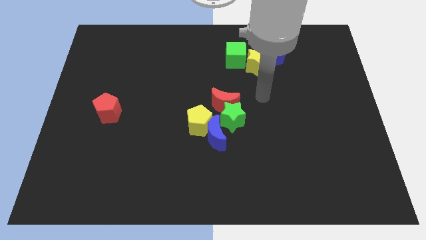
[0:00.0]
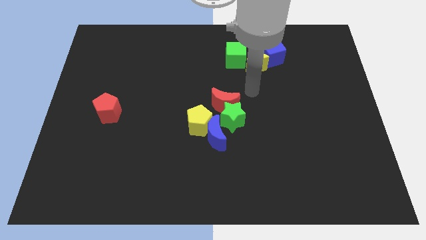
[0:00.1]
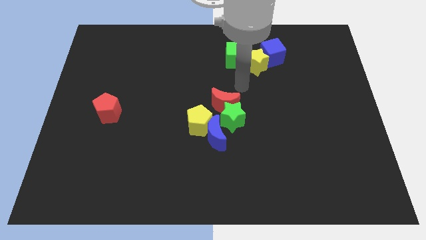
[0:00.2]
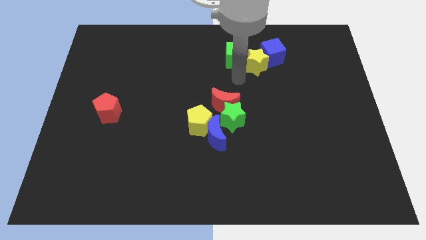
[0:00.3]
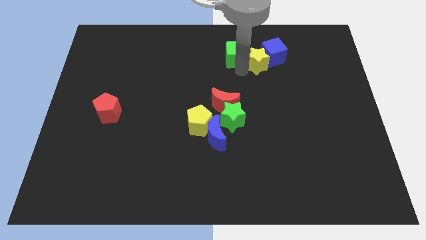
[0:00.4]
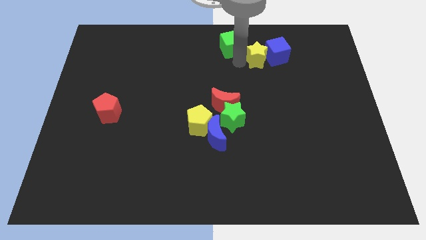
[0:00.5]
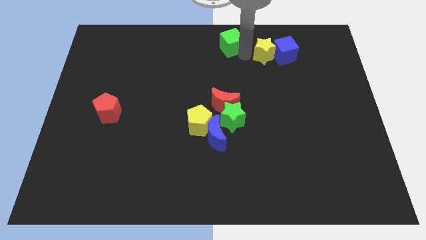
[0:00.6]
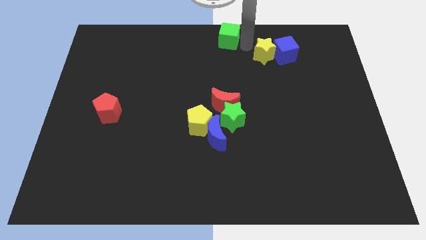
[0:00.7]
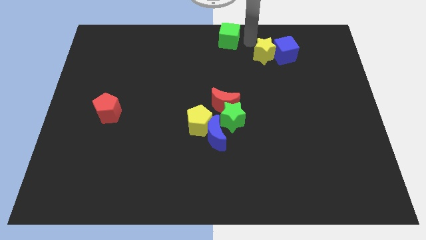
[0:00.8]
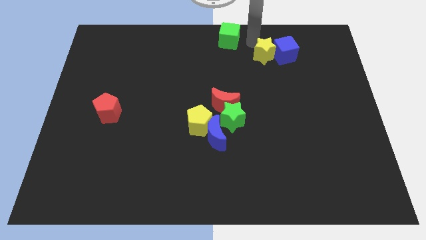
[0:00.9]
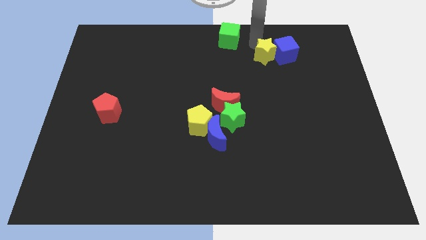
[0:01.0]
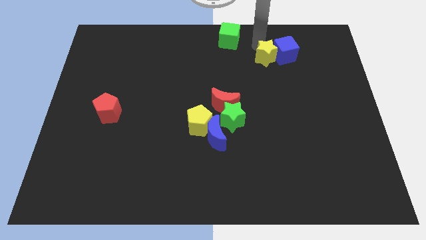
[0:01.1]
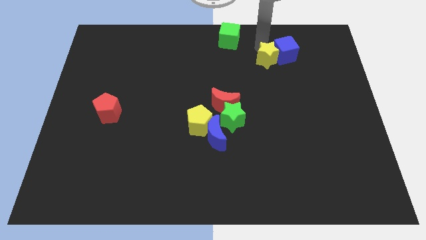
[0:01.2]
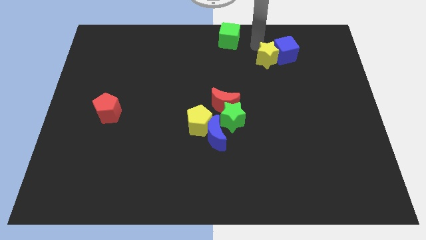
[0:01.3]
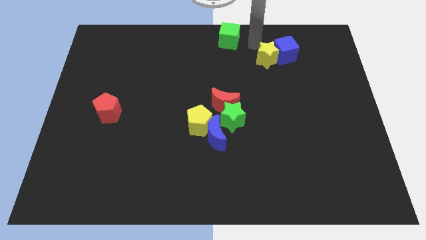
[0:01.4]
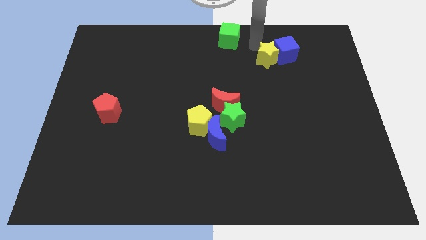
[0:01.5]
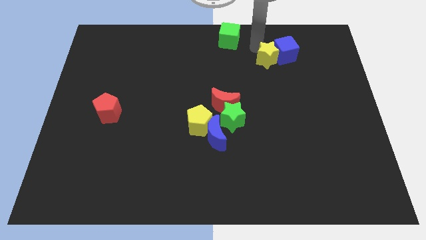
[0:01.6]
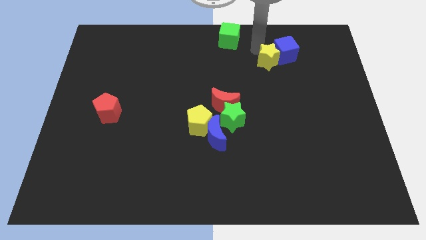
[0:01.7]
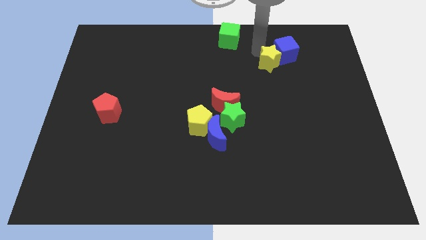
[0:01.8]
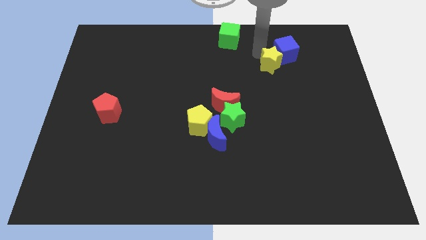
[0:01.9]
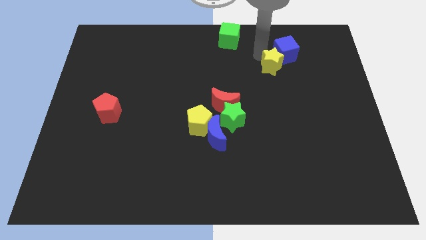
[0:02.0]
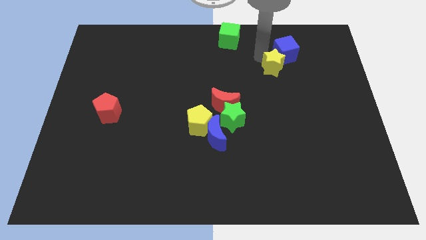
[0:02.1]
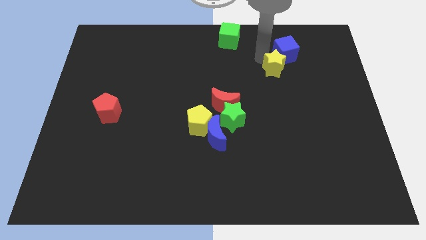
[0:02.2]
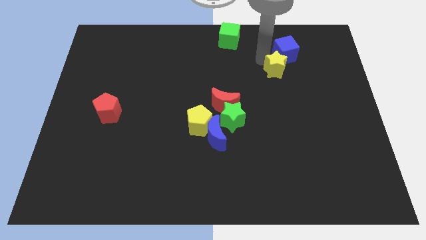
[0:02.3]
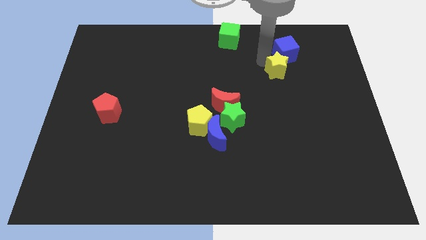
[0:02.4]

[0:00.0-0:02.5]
pull the yellow star apart from the blue cube and green cube

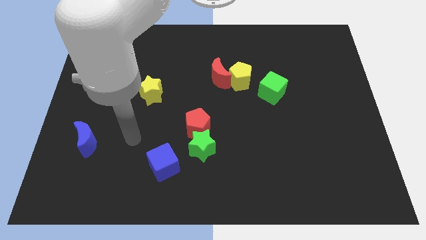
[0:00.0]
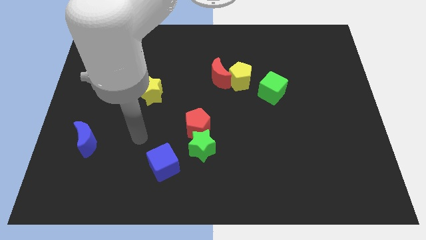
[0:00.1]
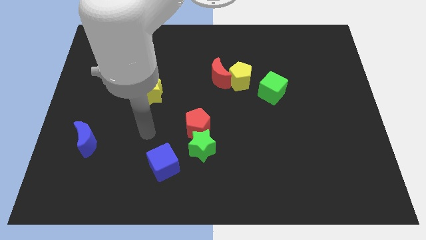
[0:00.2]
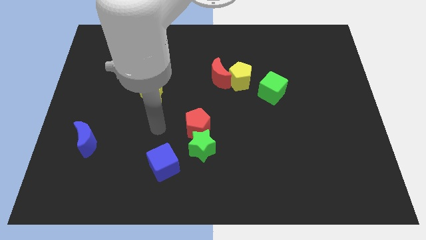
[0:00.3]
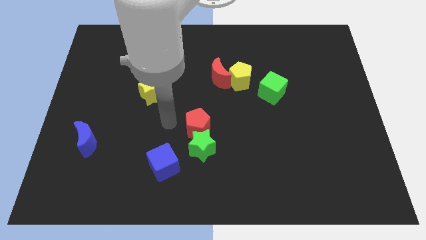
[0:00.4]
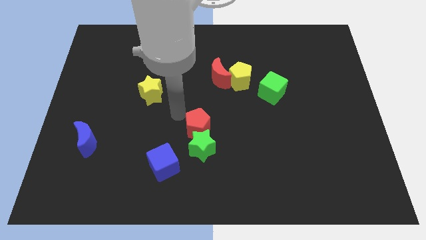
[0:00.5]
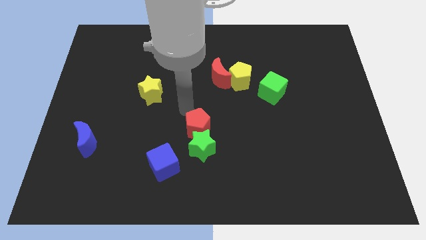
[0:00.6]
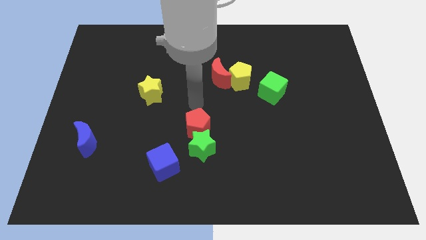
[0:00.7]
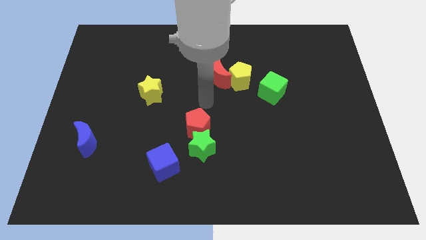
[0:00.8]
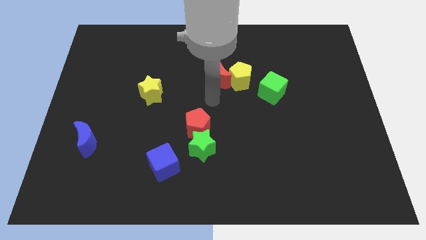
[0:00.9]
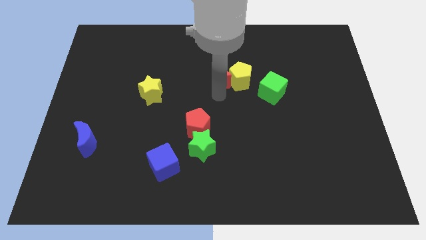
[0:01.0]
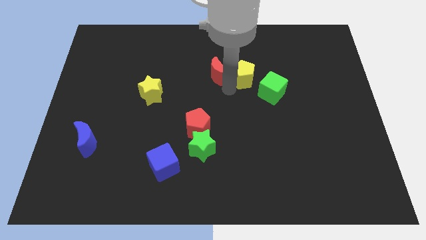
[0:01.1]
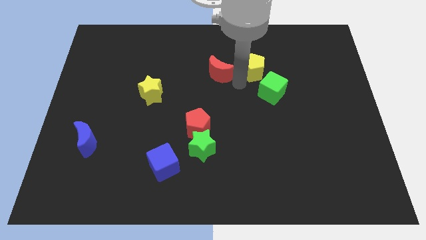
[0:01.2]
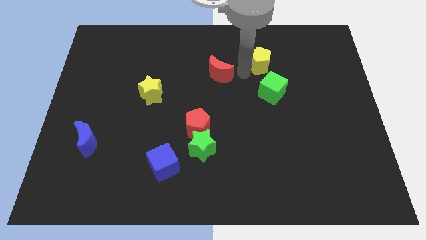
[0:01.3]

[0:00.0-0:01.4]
move the red moon away from the yellow pentagon

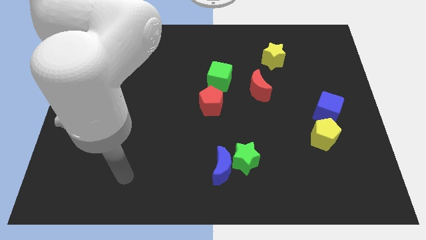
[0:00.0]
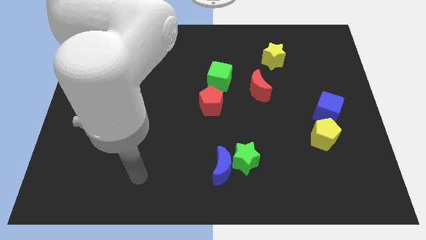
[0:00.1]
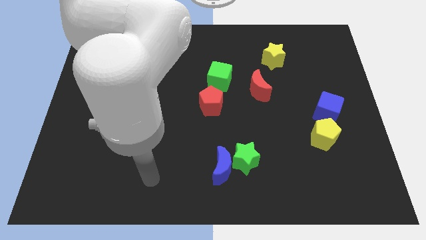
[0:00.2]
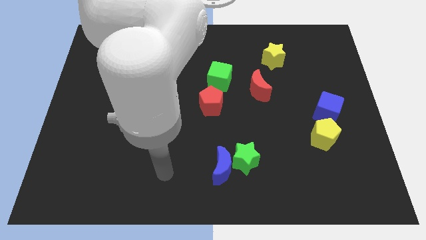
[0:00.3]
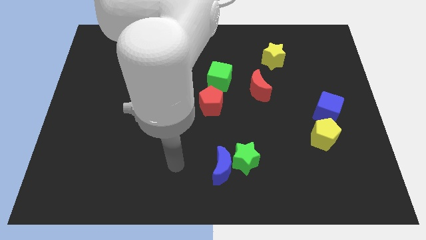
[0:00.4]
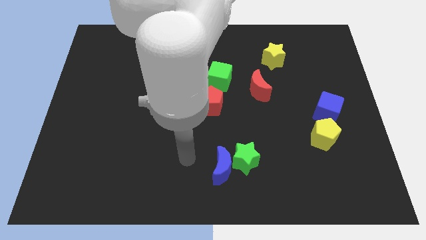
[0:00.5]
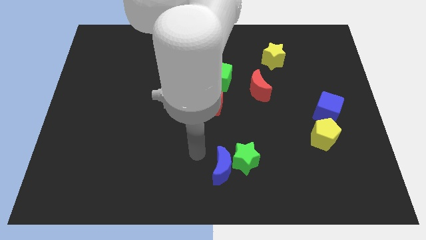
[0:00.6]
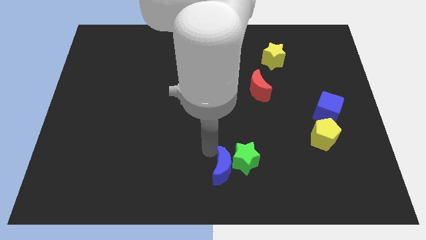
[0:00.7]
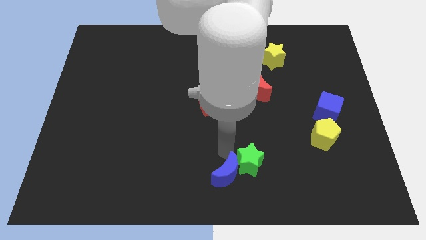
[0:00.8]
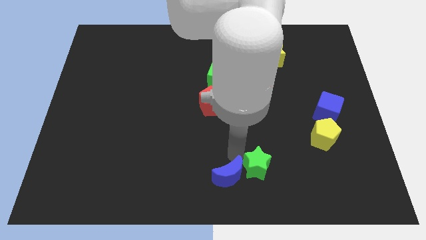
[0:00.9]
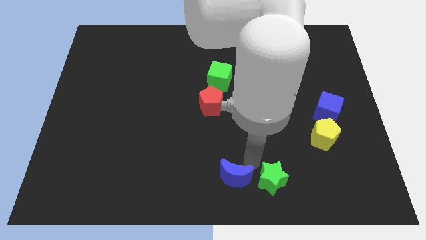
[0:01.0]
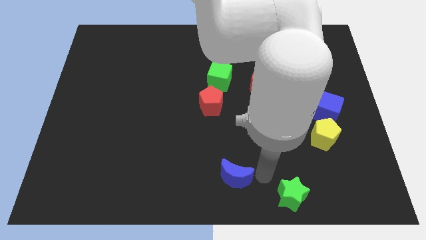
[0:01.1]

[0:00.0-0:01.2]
separate the blue moon from the green star

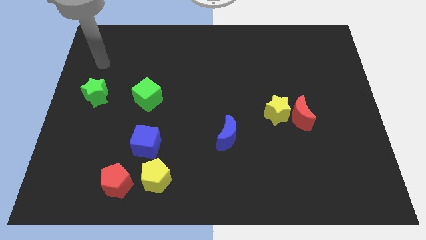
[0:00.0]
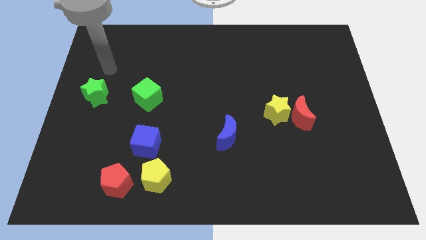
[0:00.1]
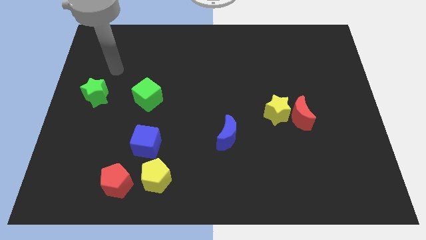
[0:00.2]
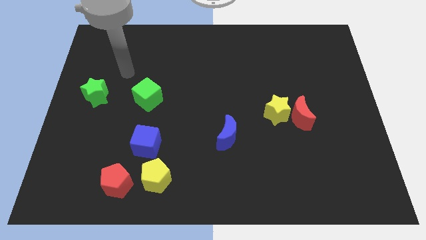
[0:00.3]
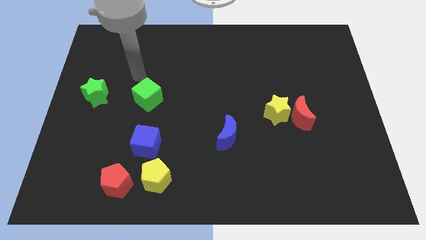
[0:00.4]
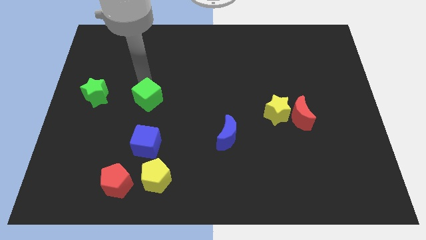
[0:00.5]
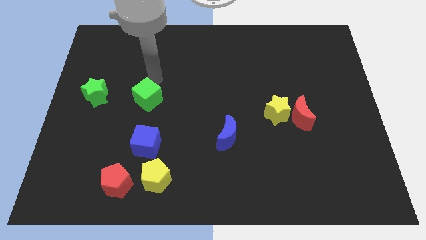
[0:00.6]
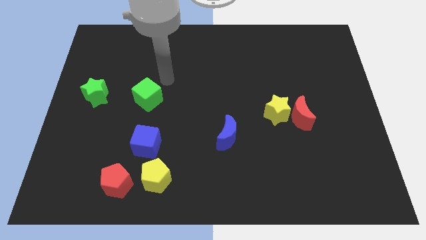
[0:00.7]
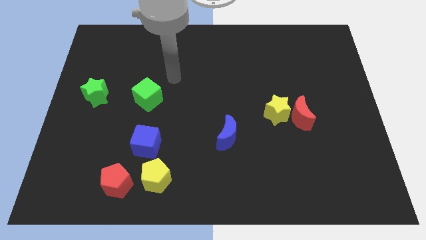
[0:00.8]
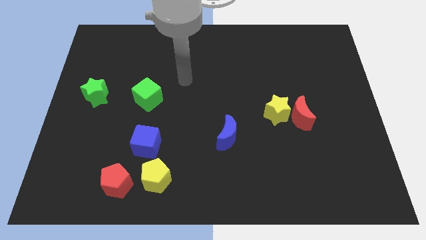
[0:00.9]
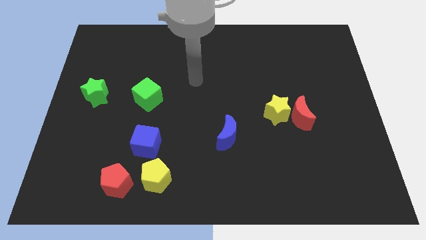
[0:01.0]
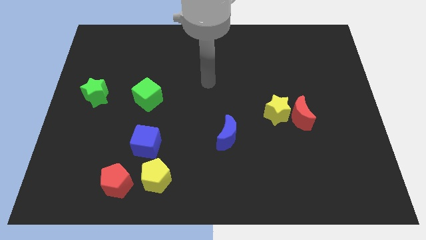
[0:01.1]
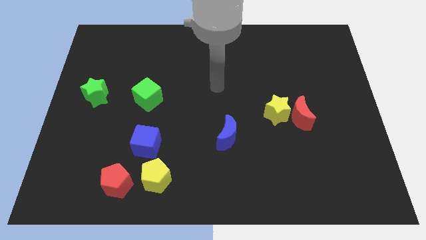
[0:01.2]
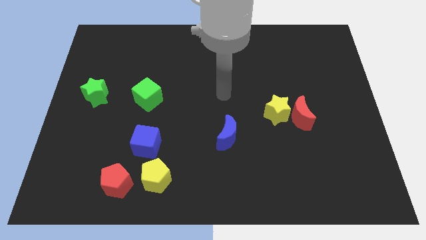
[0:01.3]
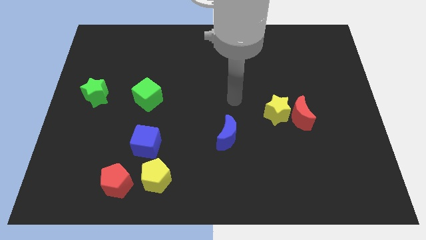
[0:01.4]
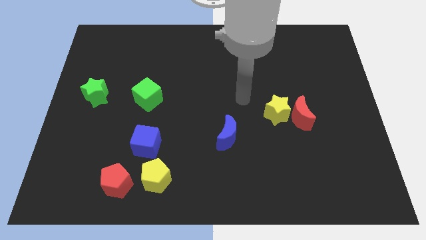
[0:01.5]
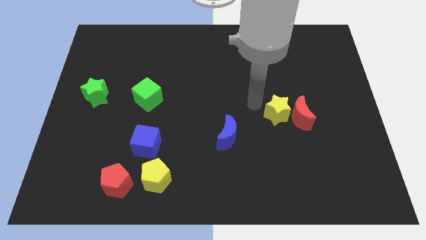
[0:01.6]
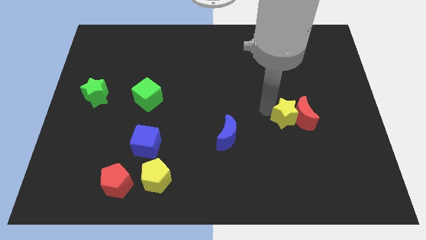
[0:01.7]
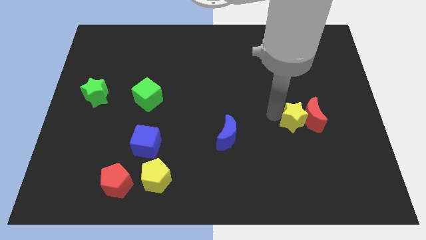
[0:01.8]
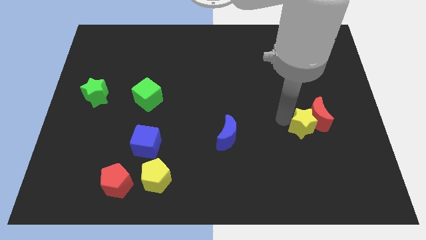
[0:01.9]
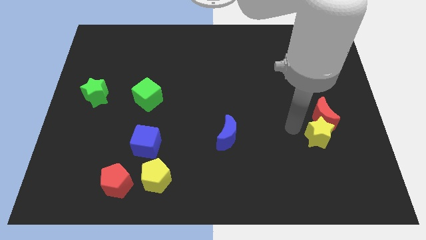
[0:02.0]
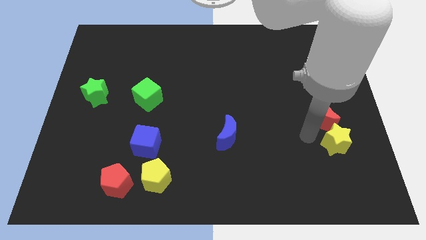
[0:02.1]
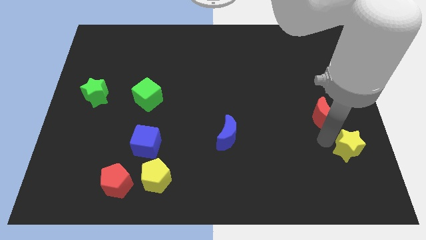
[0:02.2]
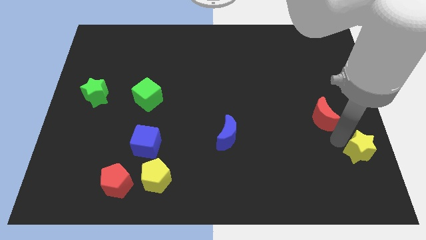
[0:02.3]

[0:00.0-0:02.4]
move the red moon away from the yellow star

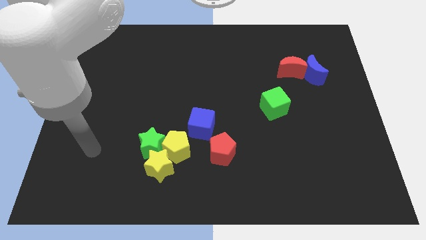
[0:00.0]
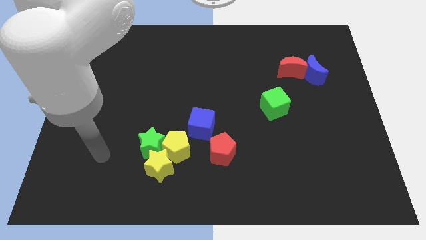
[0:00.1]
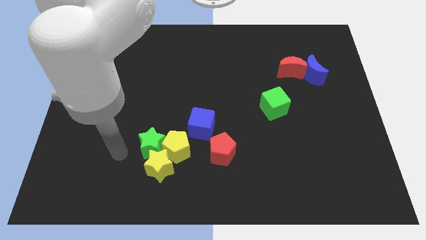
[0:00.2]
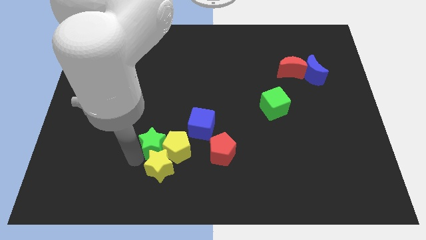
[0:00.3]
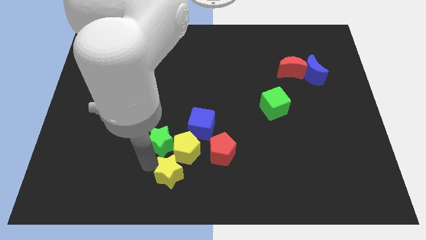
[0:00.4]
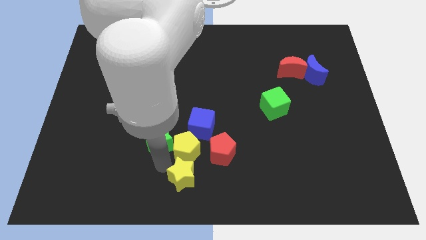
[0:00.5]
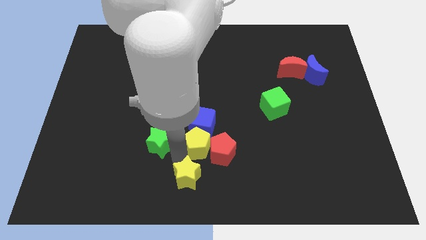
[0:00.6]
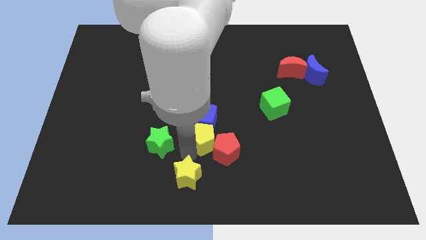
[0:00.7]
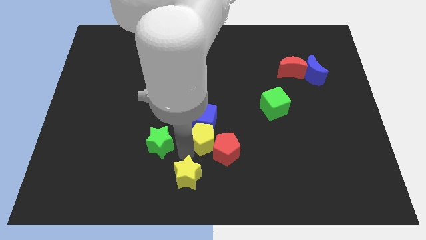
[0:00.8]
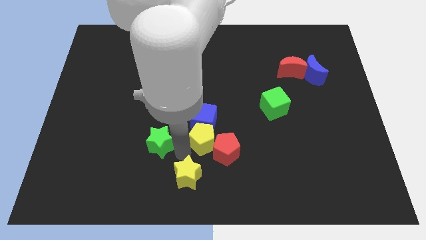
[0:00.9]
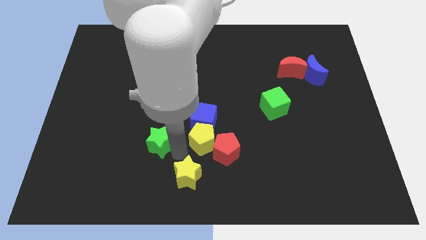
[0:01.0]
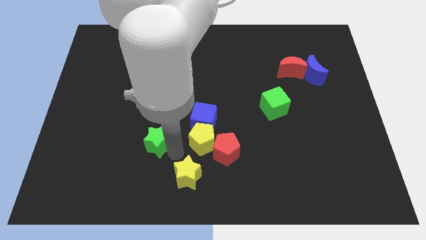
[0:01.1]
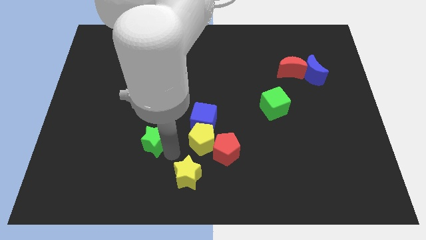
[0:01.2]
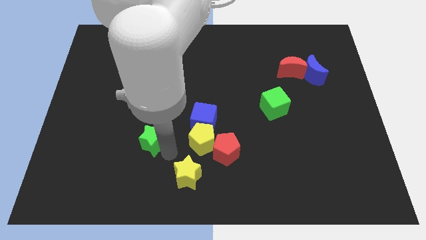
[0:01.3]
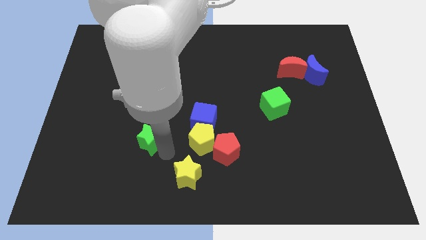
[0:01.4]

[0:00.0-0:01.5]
pull the green star apart from the yellow star and yellow pentagon

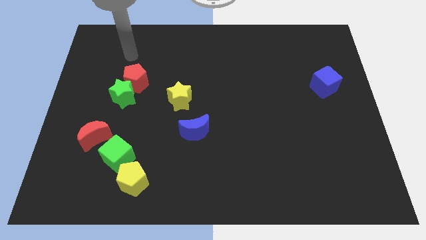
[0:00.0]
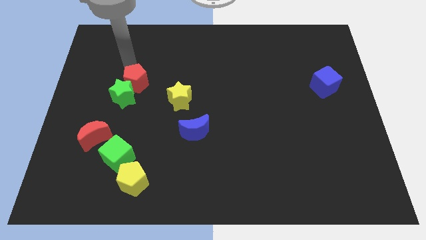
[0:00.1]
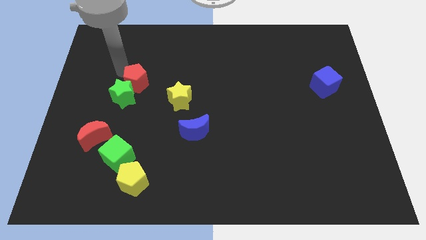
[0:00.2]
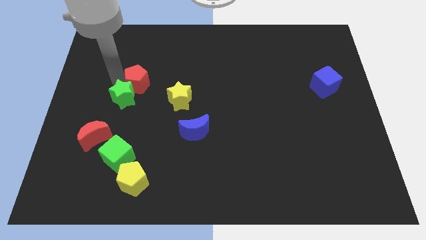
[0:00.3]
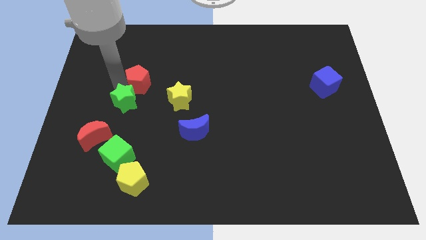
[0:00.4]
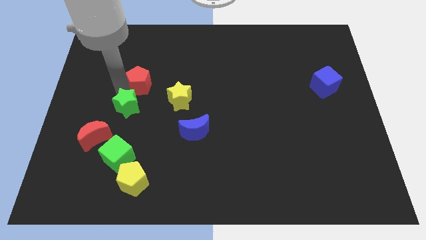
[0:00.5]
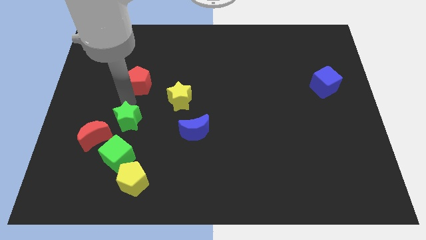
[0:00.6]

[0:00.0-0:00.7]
separate the red pentagon from the green star
